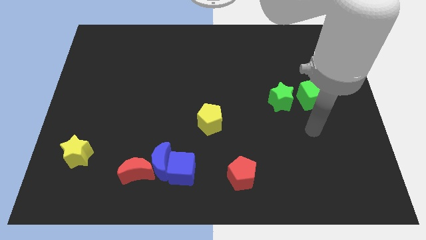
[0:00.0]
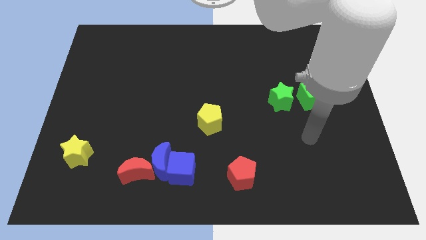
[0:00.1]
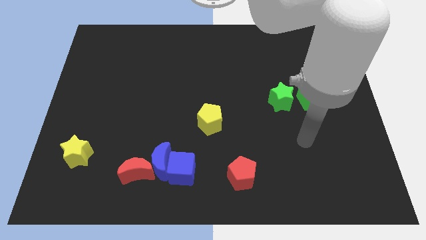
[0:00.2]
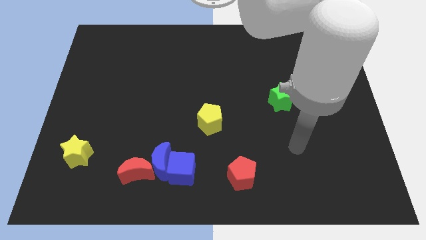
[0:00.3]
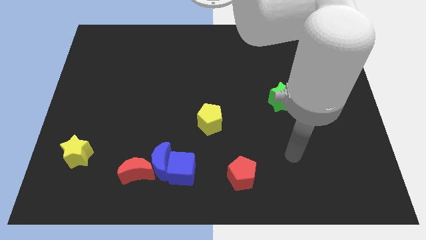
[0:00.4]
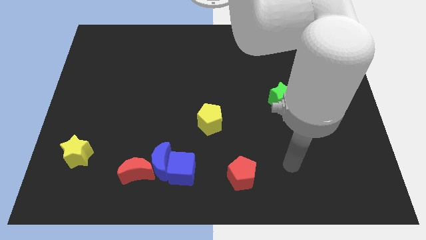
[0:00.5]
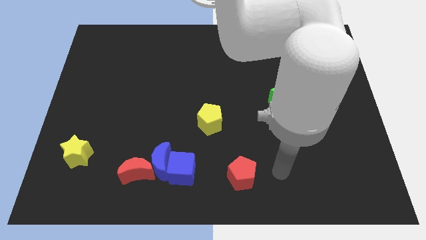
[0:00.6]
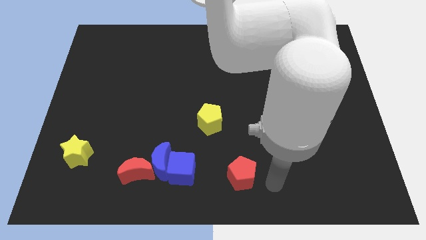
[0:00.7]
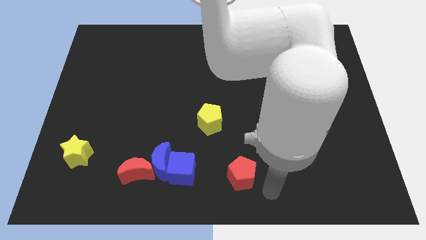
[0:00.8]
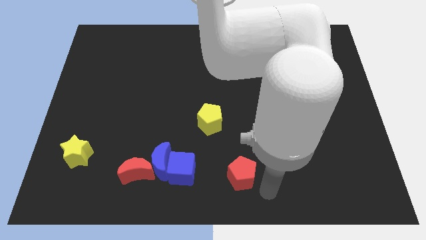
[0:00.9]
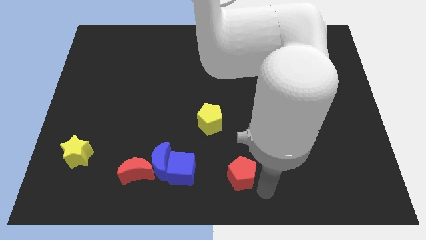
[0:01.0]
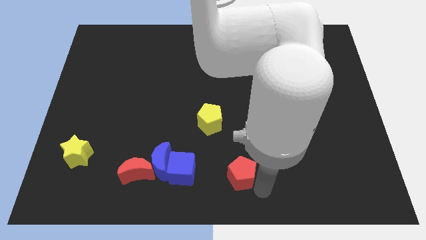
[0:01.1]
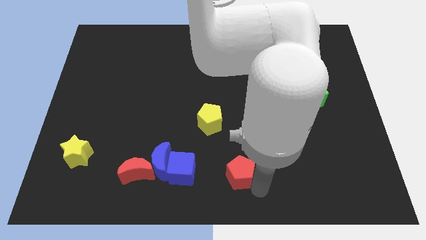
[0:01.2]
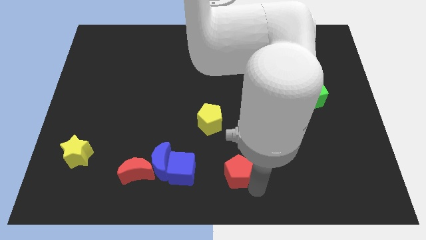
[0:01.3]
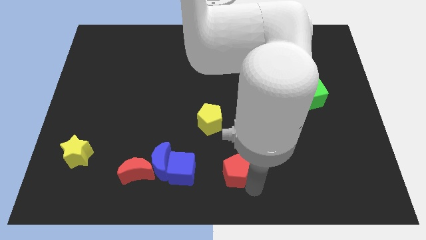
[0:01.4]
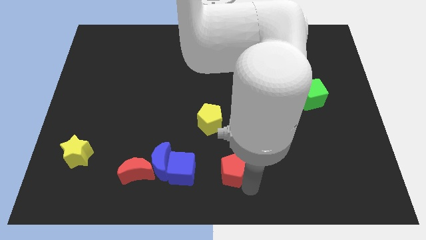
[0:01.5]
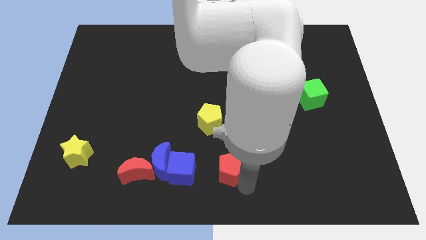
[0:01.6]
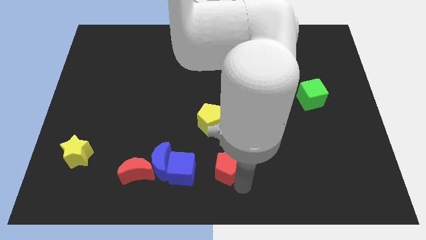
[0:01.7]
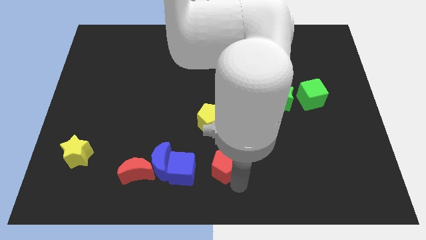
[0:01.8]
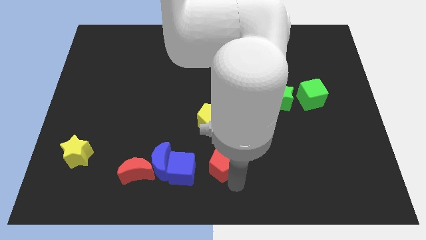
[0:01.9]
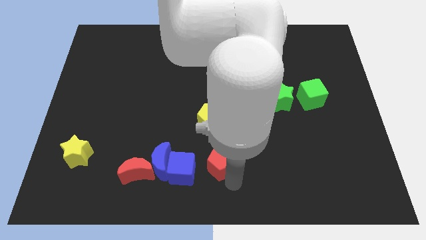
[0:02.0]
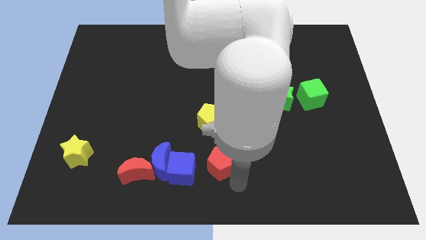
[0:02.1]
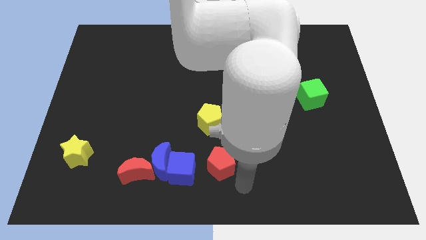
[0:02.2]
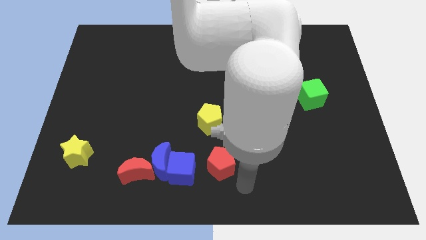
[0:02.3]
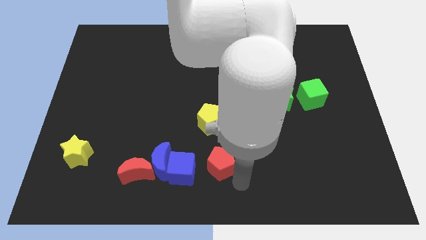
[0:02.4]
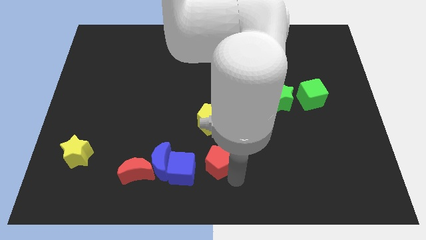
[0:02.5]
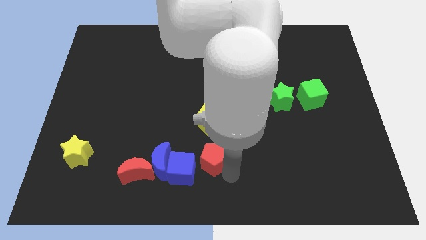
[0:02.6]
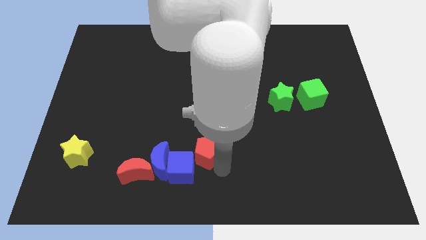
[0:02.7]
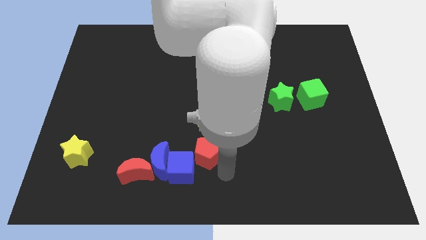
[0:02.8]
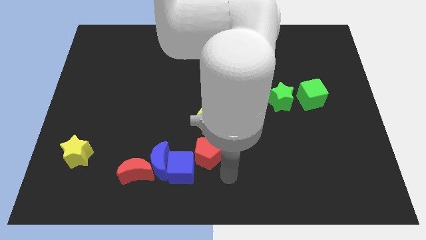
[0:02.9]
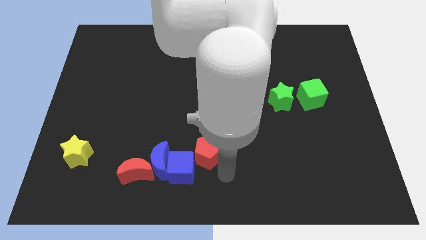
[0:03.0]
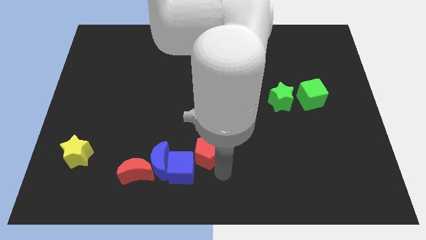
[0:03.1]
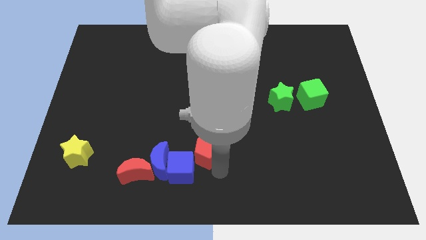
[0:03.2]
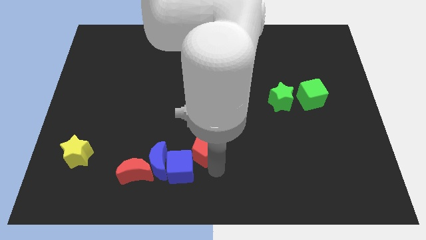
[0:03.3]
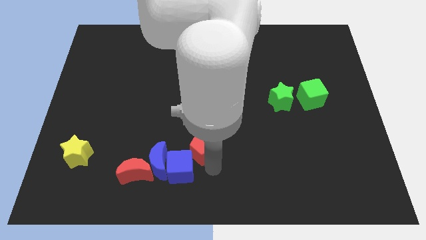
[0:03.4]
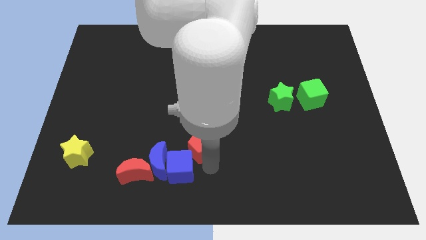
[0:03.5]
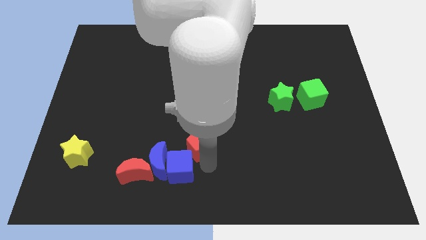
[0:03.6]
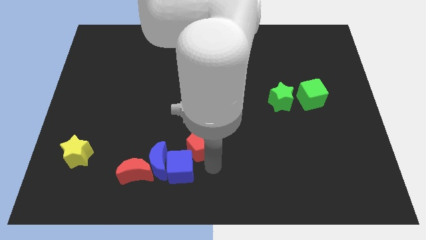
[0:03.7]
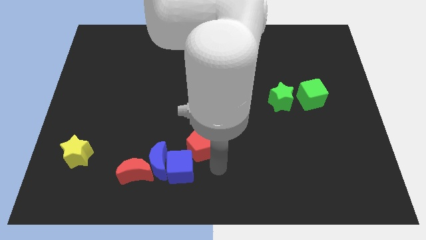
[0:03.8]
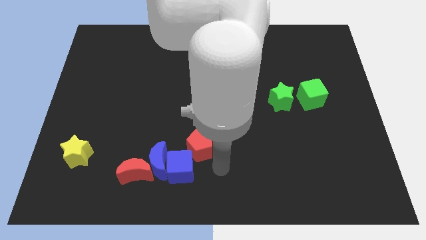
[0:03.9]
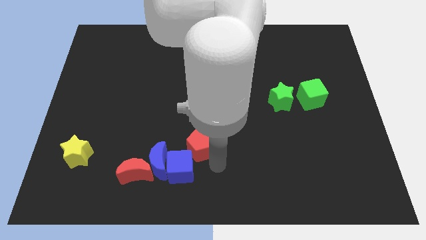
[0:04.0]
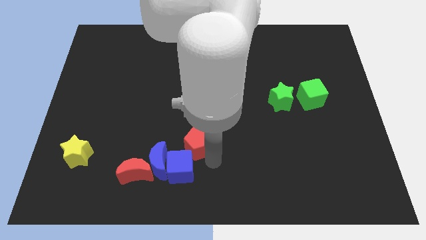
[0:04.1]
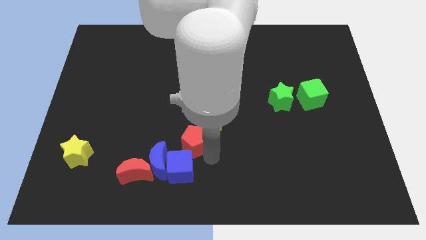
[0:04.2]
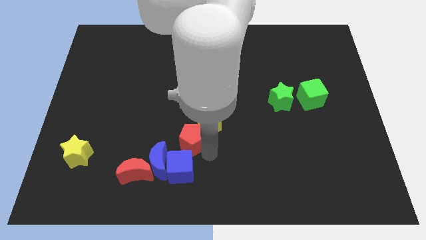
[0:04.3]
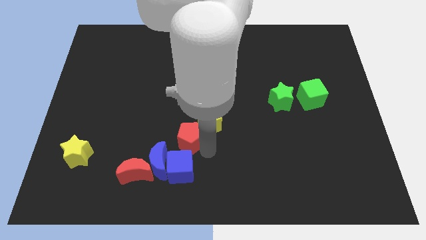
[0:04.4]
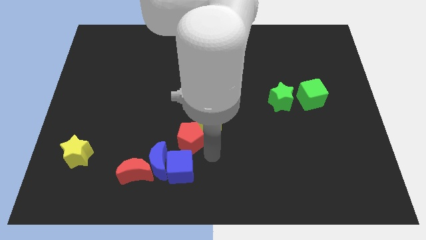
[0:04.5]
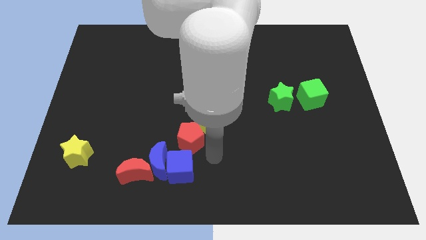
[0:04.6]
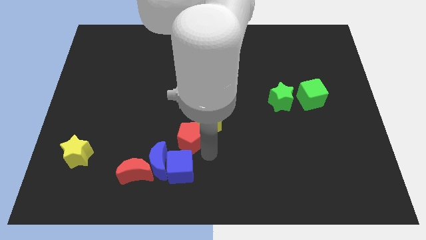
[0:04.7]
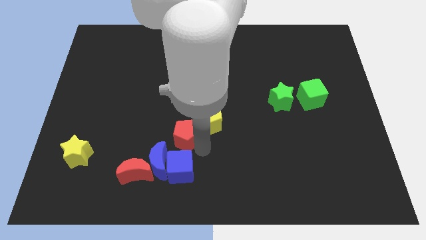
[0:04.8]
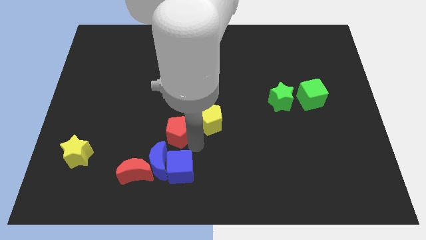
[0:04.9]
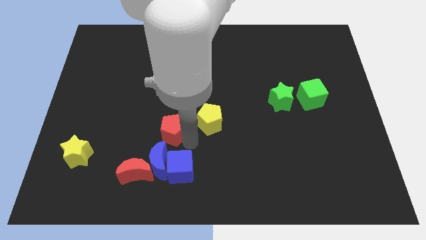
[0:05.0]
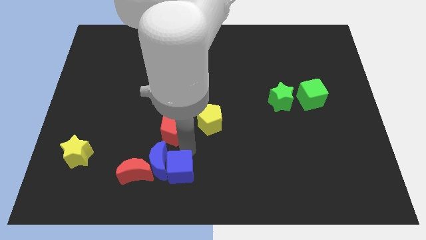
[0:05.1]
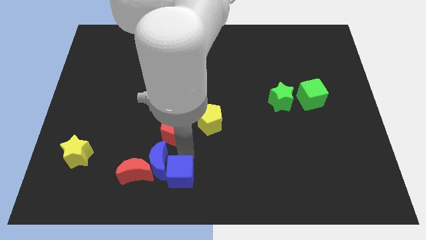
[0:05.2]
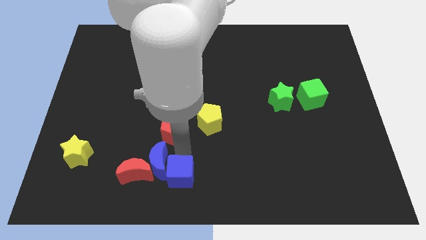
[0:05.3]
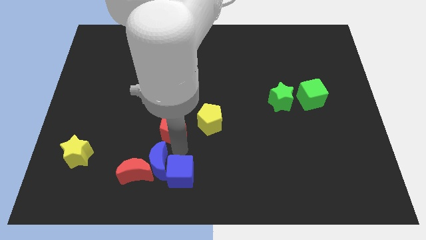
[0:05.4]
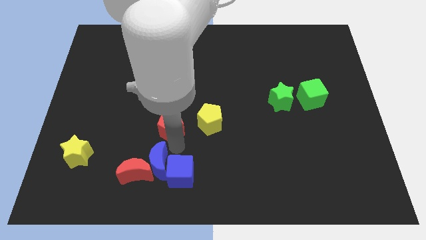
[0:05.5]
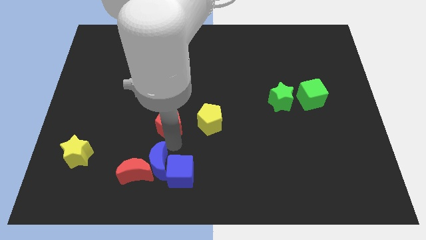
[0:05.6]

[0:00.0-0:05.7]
push the red pentagon diagonally upwards and left

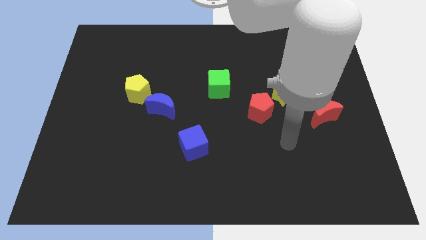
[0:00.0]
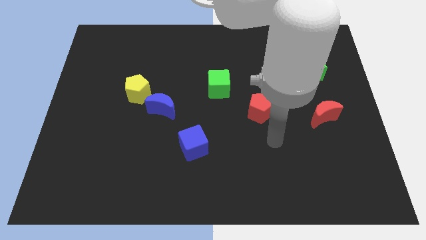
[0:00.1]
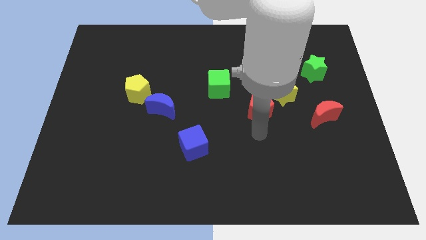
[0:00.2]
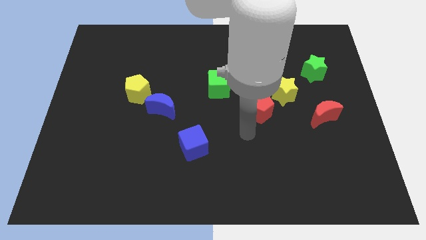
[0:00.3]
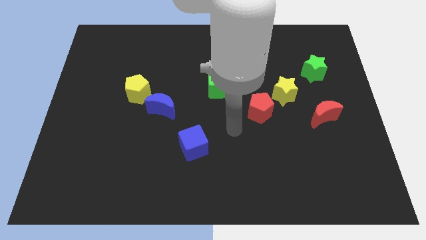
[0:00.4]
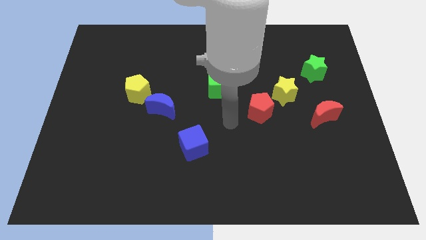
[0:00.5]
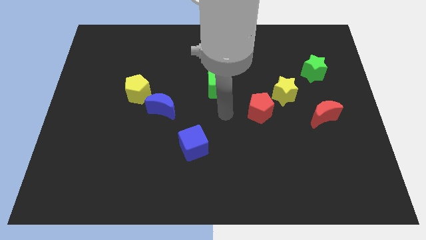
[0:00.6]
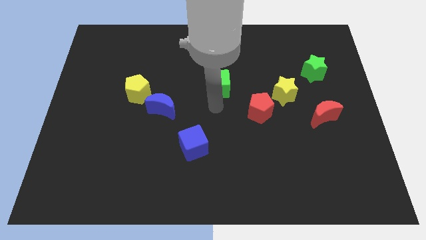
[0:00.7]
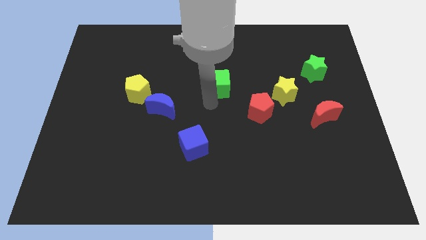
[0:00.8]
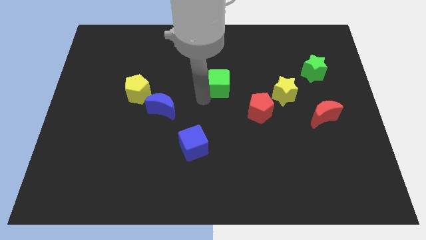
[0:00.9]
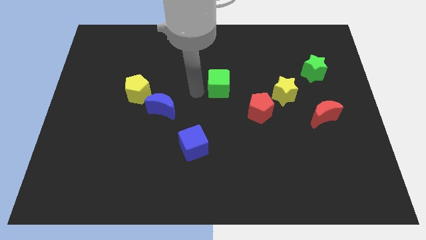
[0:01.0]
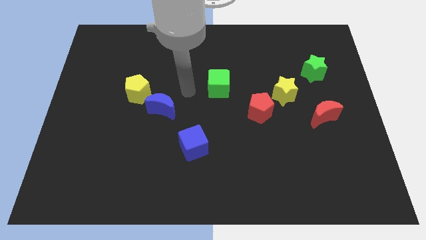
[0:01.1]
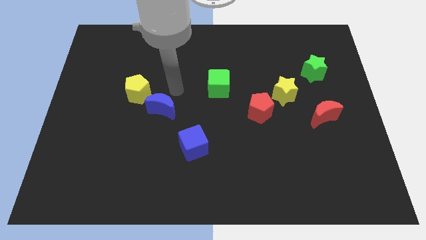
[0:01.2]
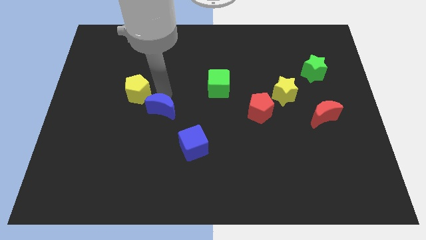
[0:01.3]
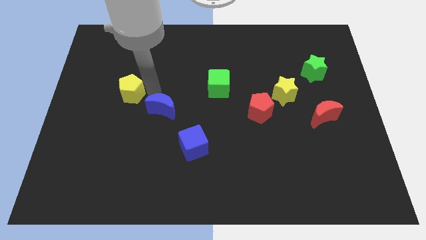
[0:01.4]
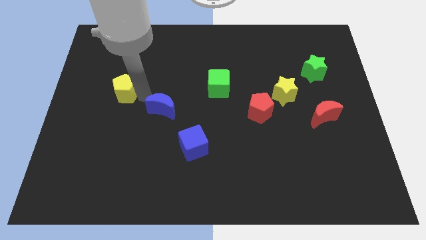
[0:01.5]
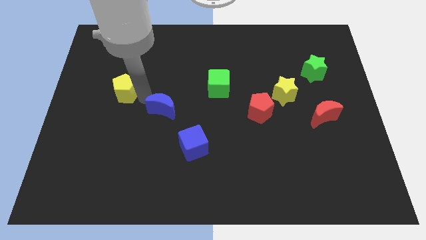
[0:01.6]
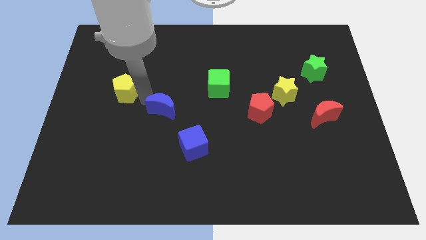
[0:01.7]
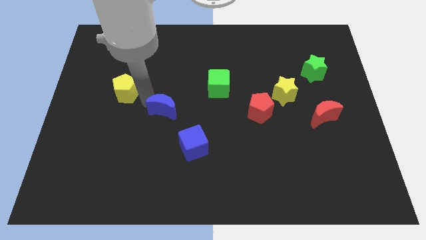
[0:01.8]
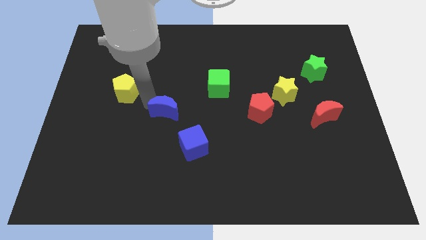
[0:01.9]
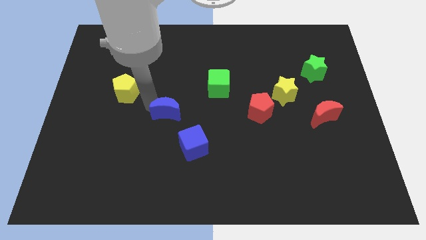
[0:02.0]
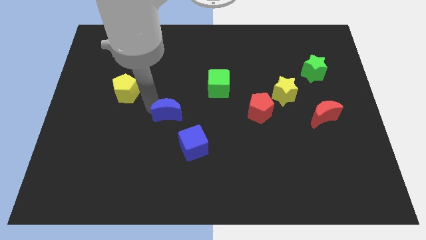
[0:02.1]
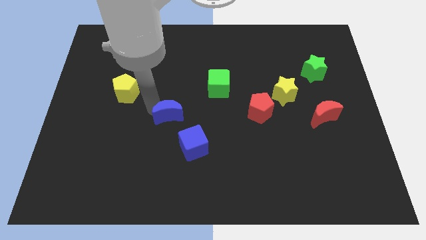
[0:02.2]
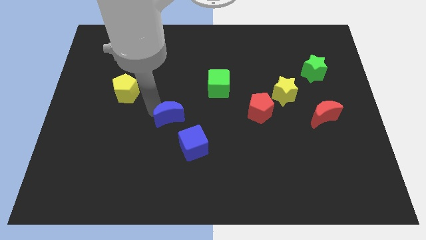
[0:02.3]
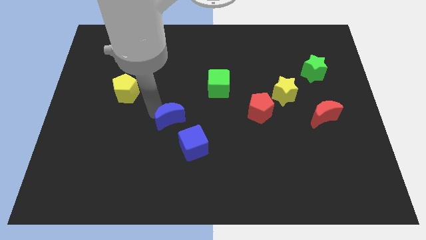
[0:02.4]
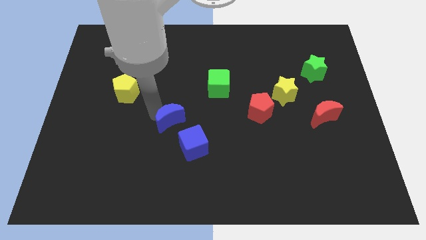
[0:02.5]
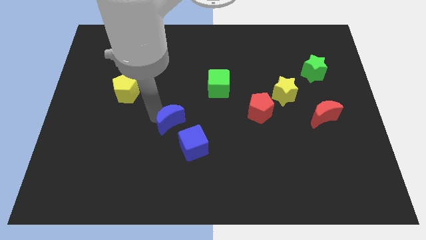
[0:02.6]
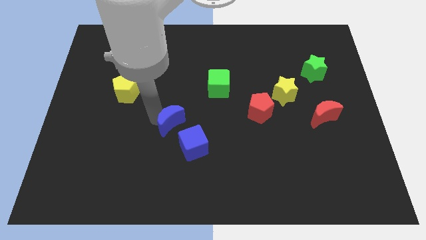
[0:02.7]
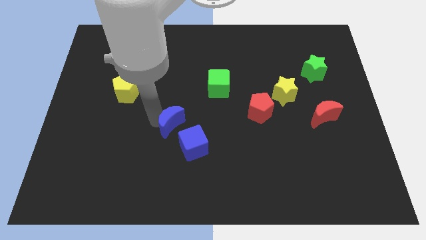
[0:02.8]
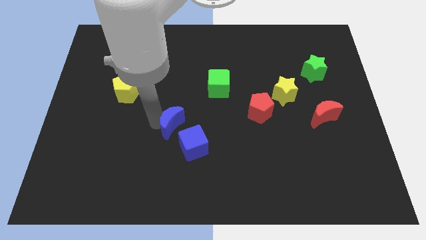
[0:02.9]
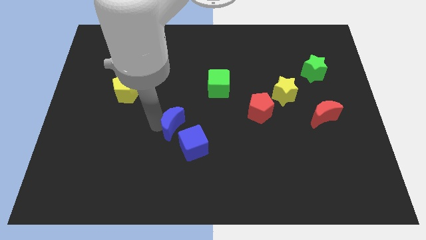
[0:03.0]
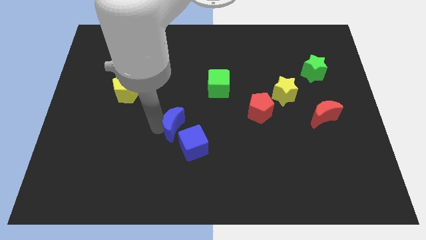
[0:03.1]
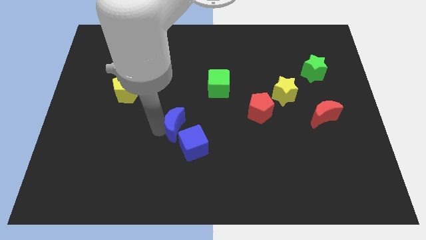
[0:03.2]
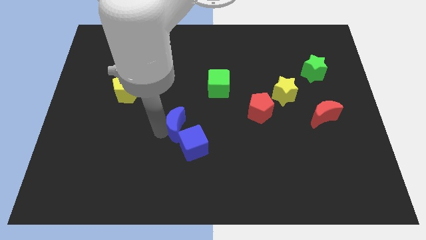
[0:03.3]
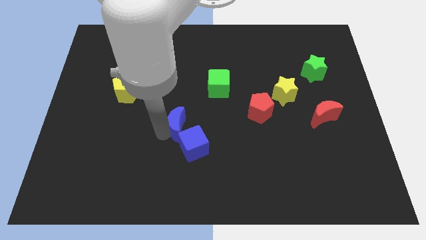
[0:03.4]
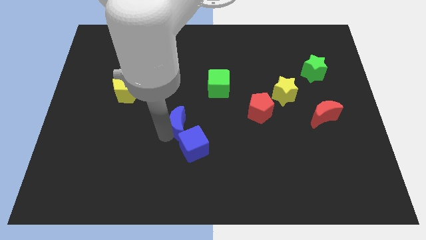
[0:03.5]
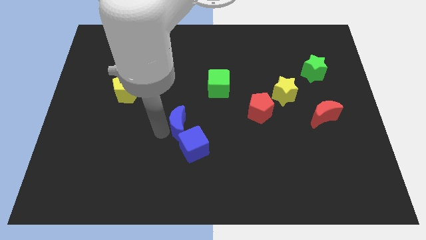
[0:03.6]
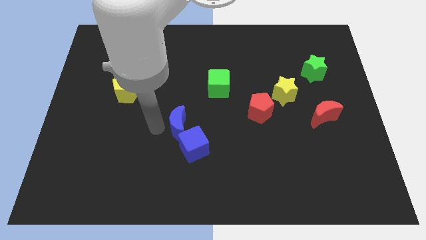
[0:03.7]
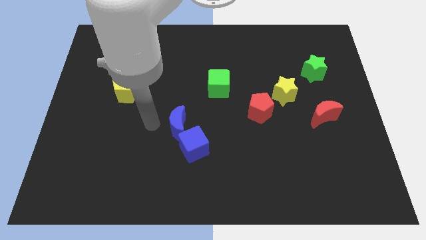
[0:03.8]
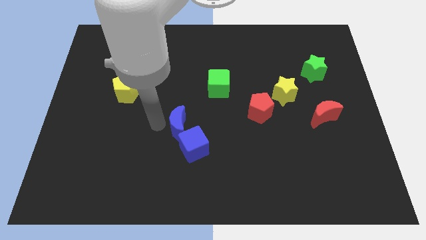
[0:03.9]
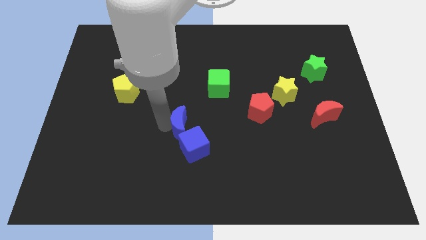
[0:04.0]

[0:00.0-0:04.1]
slightly push the blue moon down and to the right diagonally
